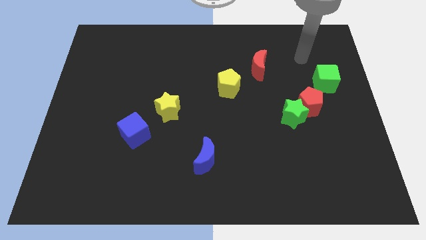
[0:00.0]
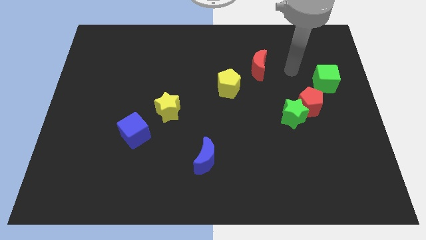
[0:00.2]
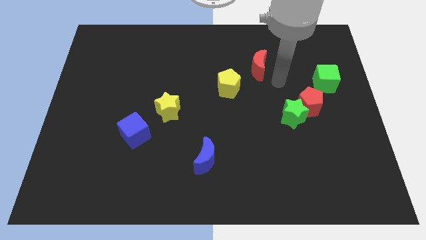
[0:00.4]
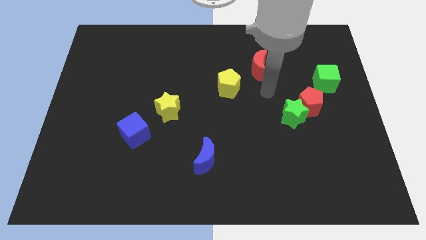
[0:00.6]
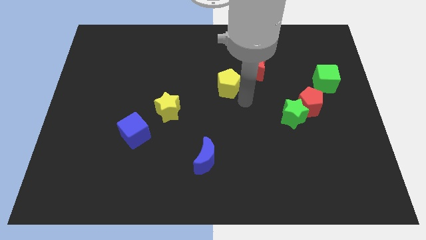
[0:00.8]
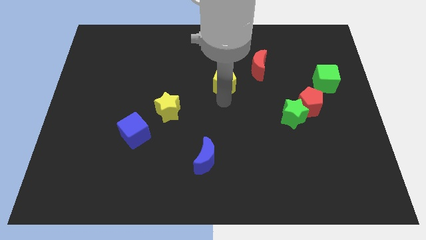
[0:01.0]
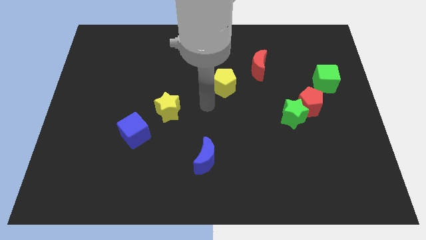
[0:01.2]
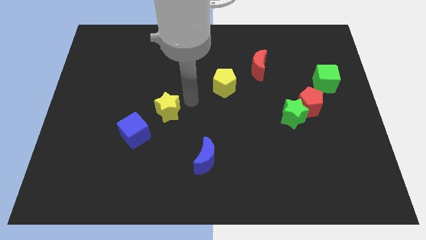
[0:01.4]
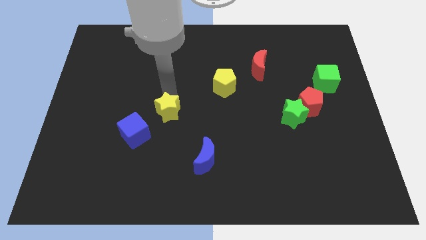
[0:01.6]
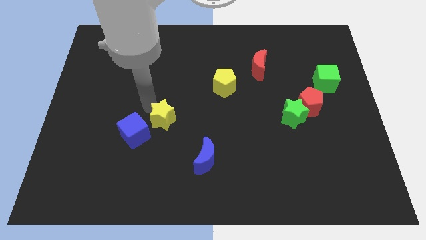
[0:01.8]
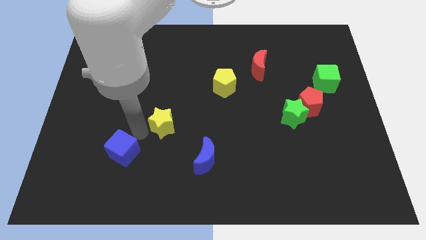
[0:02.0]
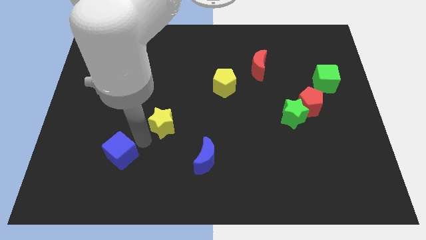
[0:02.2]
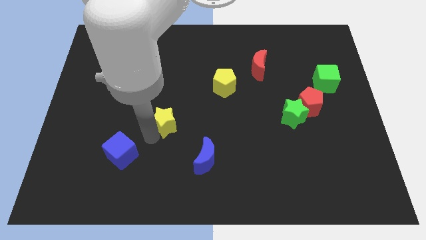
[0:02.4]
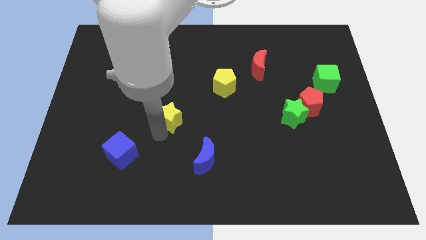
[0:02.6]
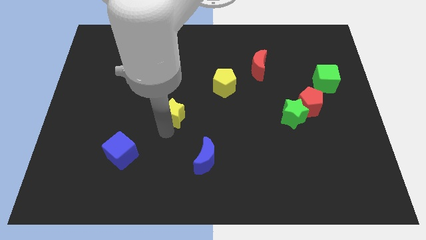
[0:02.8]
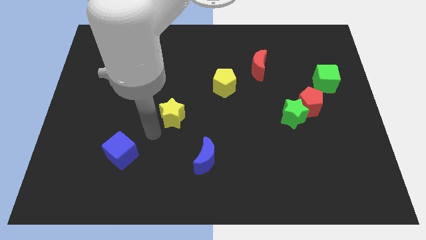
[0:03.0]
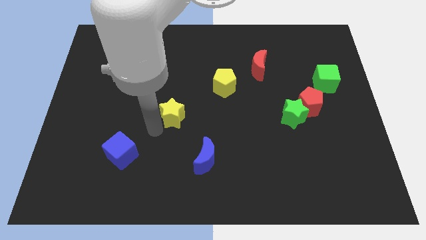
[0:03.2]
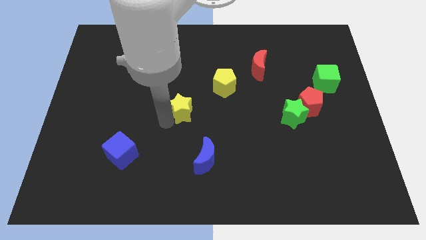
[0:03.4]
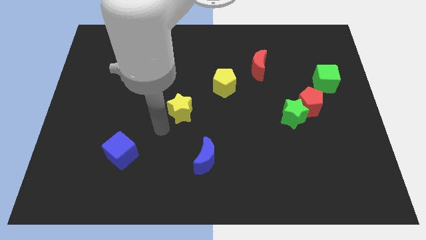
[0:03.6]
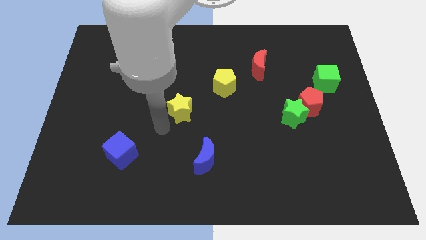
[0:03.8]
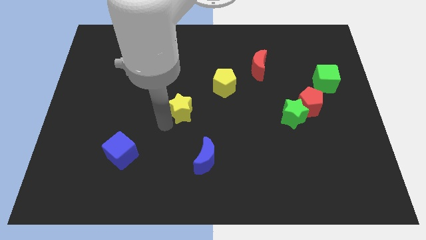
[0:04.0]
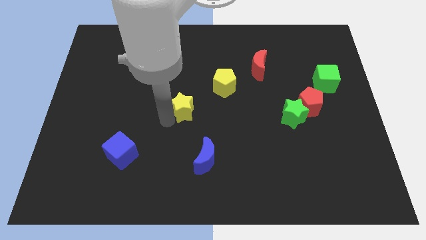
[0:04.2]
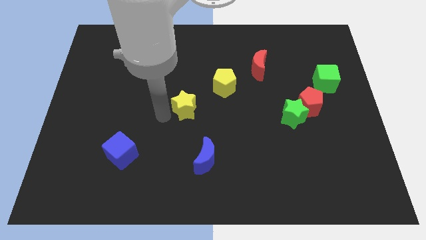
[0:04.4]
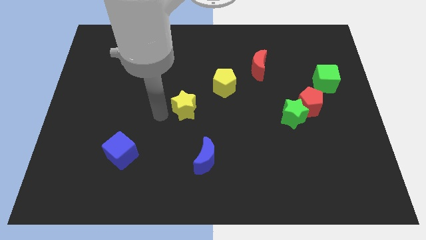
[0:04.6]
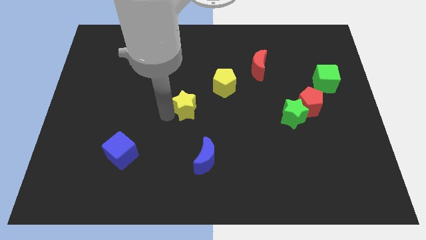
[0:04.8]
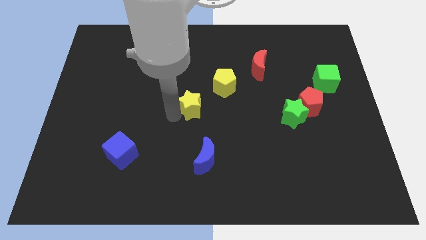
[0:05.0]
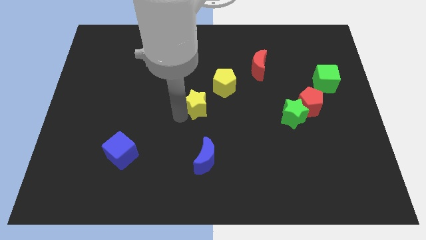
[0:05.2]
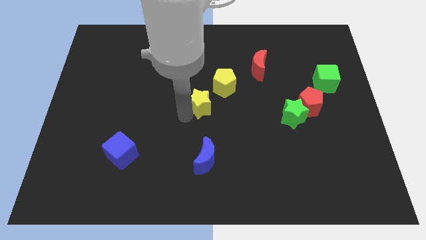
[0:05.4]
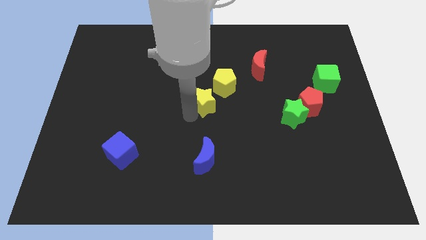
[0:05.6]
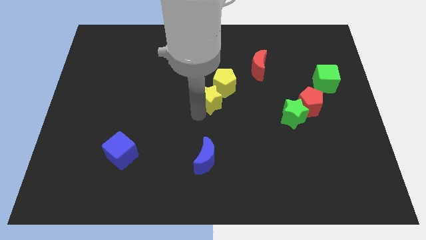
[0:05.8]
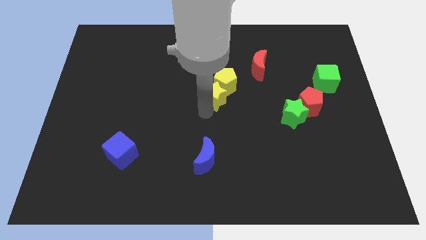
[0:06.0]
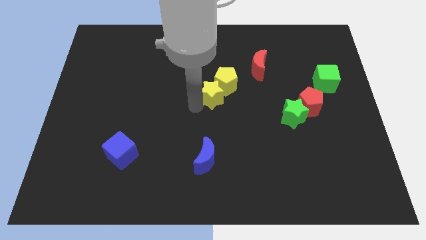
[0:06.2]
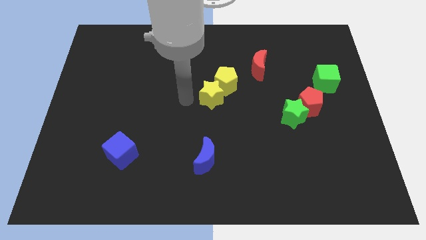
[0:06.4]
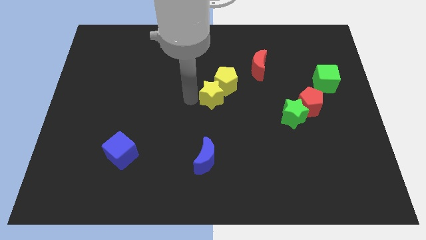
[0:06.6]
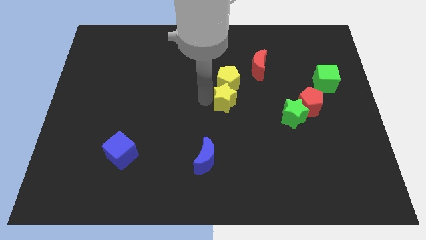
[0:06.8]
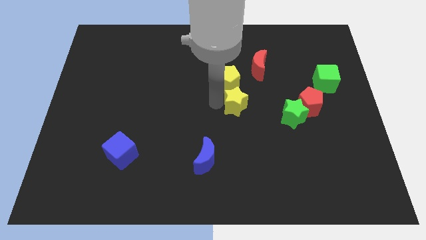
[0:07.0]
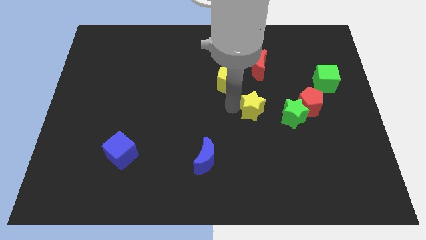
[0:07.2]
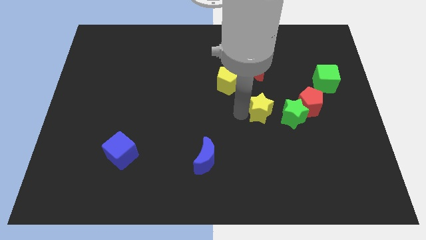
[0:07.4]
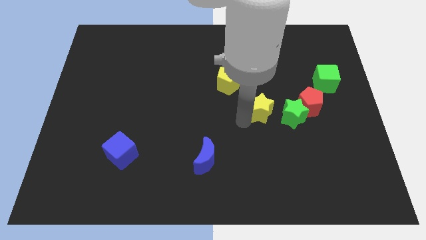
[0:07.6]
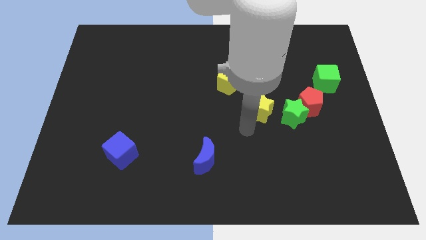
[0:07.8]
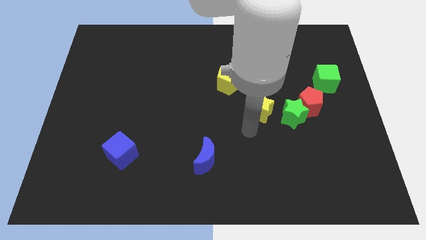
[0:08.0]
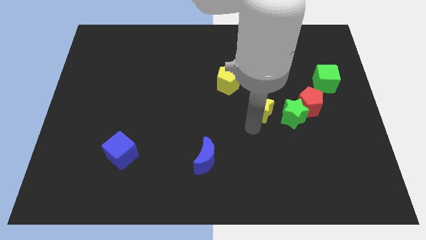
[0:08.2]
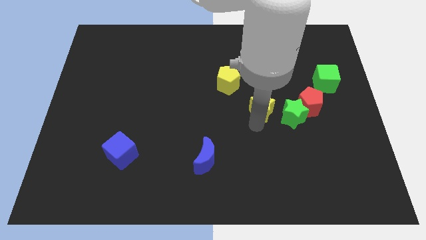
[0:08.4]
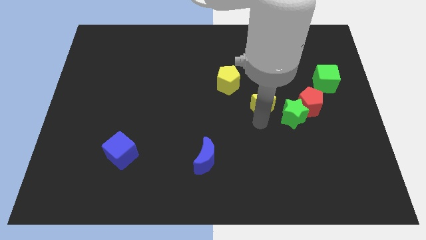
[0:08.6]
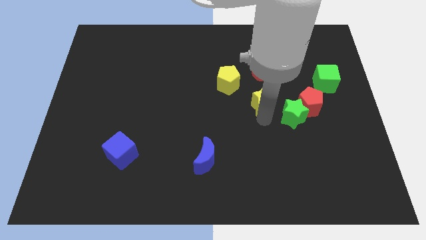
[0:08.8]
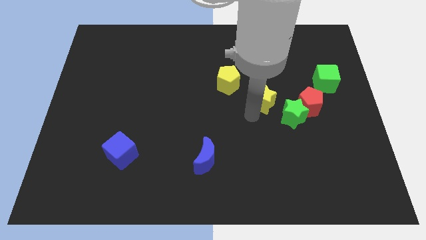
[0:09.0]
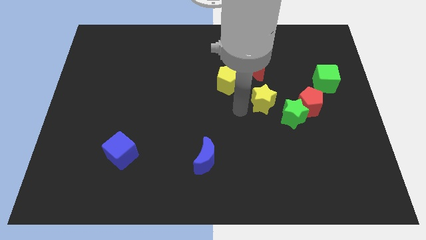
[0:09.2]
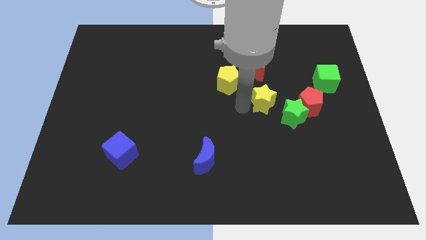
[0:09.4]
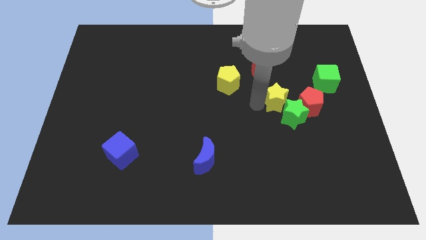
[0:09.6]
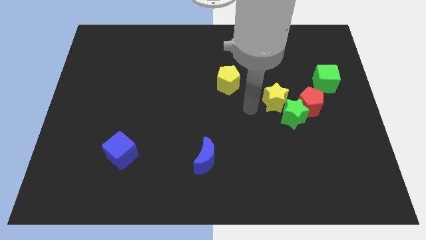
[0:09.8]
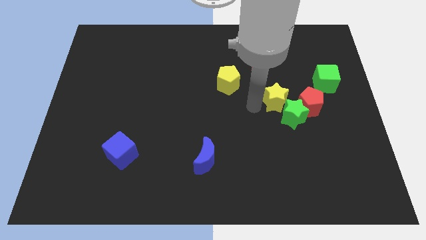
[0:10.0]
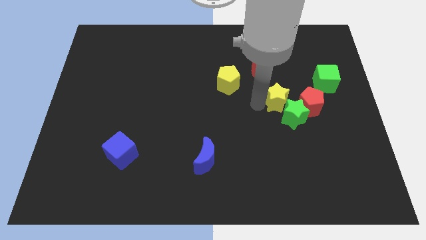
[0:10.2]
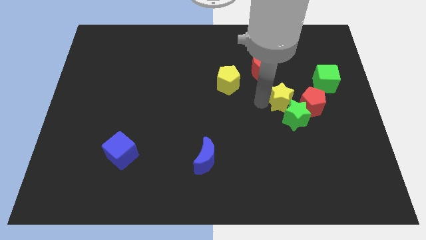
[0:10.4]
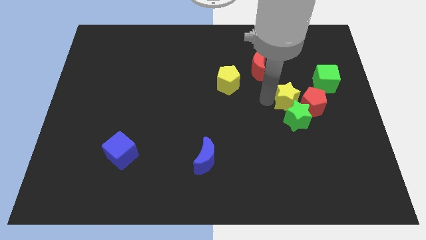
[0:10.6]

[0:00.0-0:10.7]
put the yellow star to the red pentagon

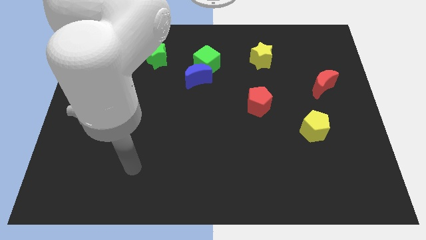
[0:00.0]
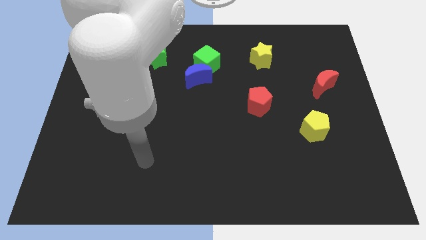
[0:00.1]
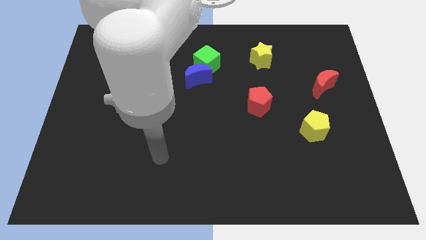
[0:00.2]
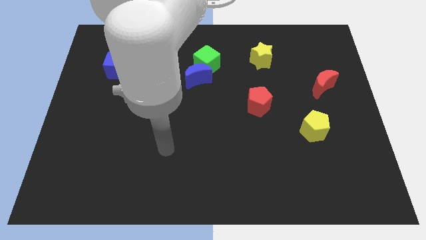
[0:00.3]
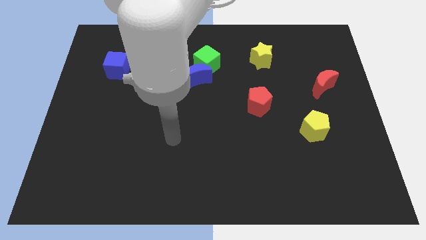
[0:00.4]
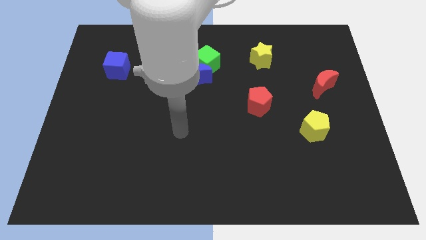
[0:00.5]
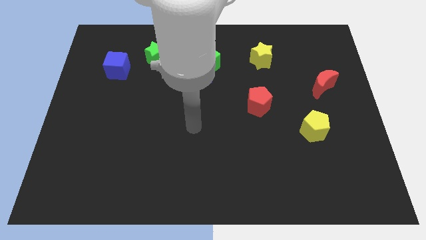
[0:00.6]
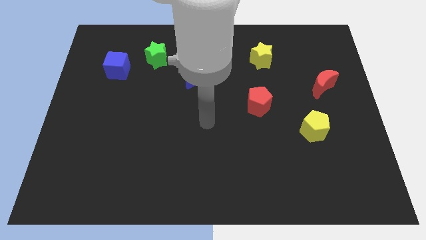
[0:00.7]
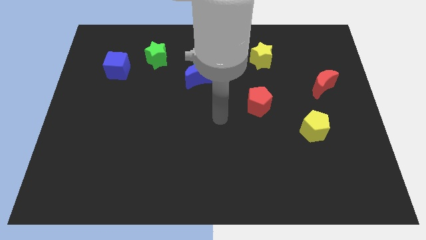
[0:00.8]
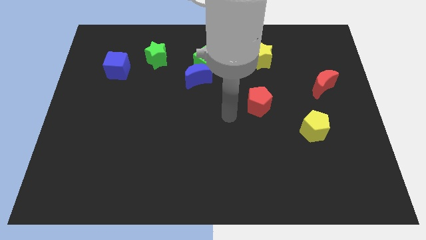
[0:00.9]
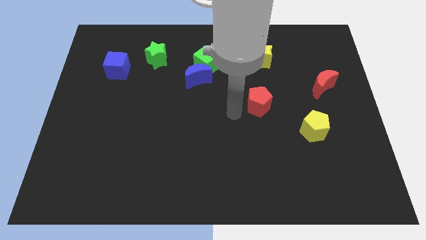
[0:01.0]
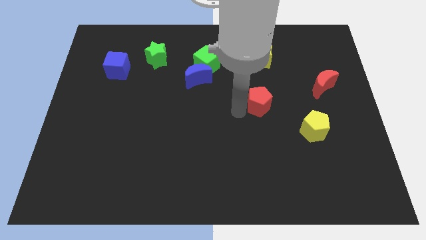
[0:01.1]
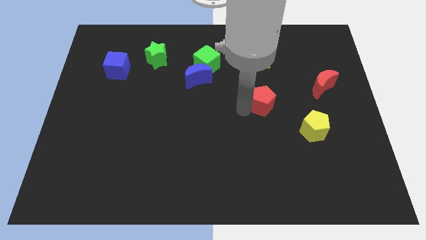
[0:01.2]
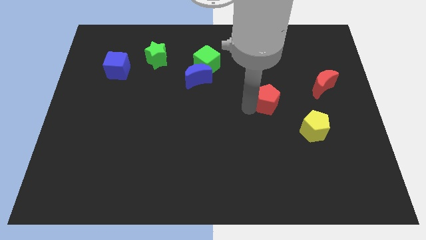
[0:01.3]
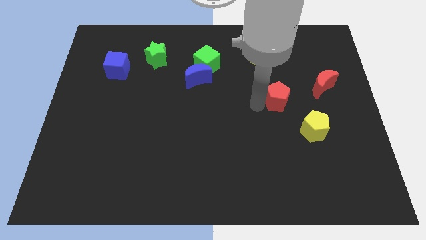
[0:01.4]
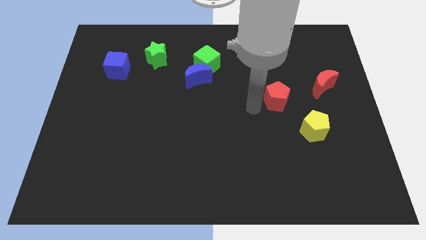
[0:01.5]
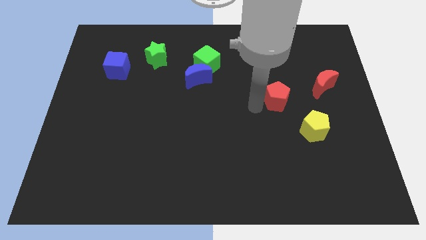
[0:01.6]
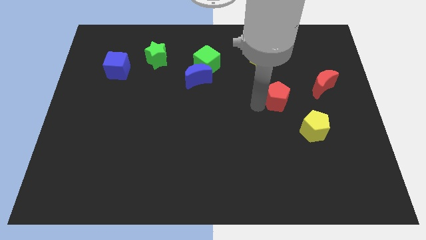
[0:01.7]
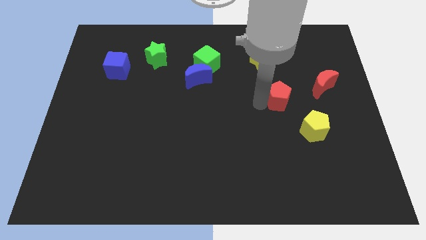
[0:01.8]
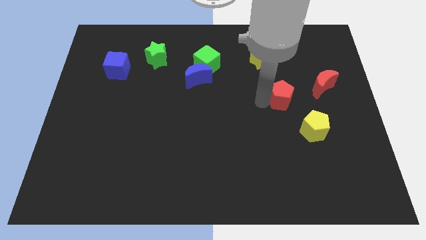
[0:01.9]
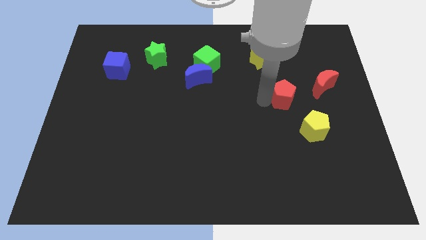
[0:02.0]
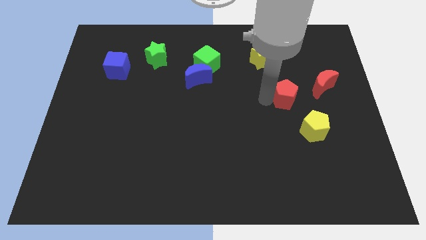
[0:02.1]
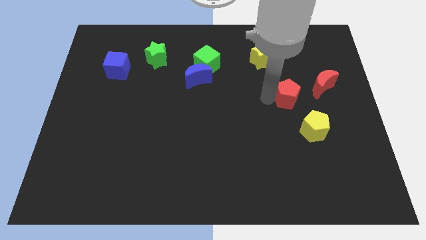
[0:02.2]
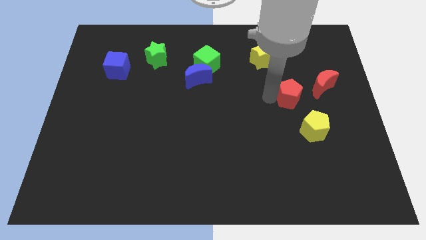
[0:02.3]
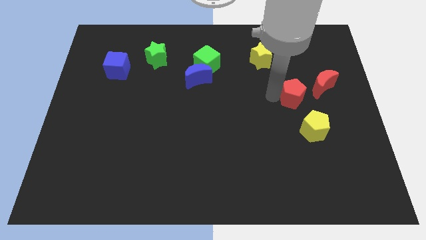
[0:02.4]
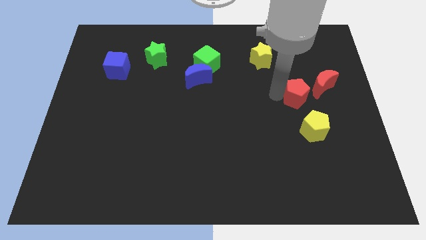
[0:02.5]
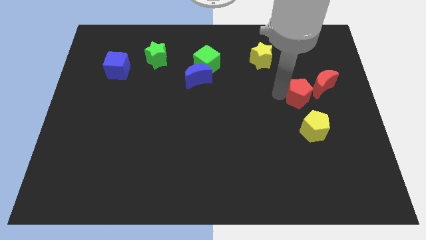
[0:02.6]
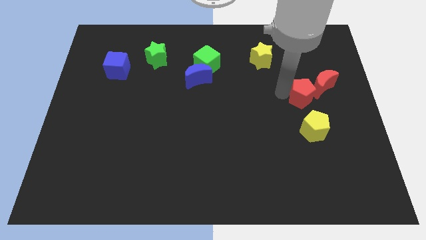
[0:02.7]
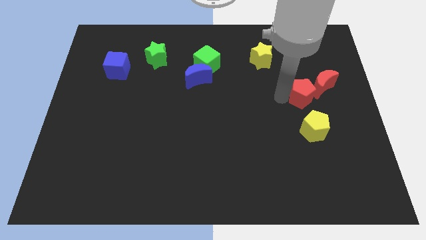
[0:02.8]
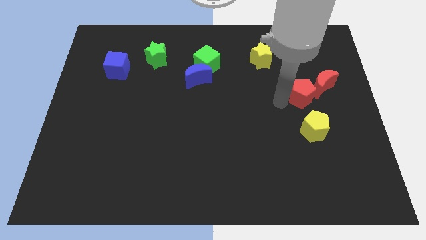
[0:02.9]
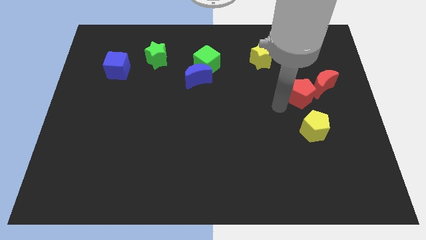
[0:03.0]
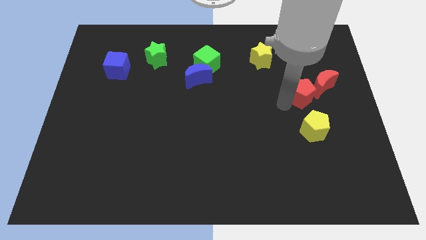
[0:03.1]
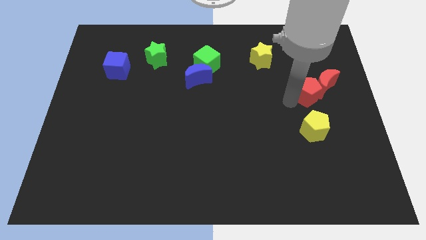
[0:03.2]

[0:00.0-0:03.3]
move the red pentagon close to the red moon
